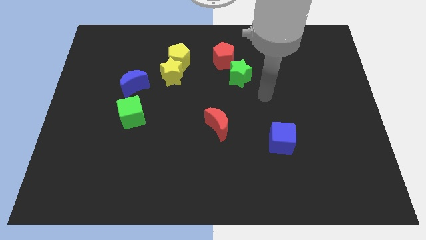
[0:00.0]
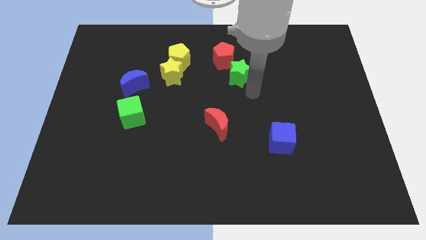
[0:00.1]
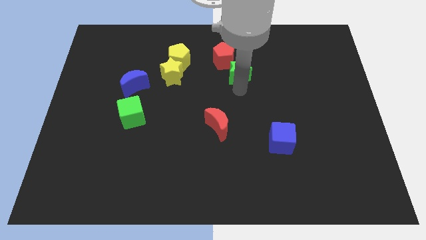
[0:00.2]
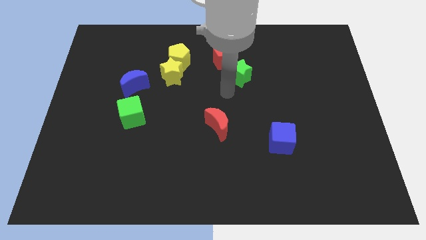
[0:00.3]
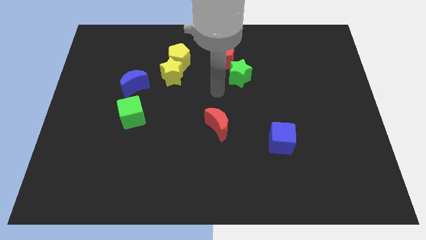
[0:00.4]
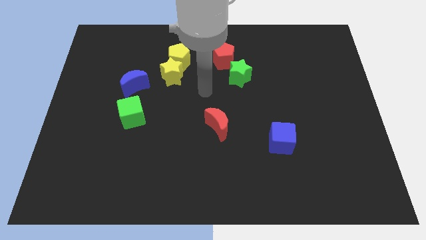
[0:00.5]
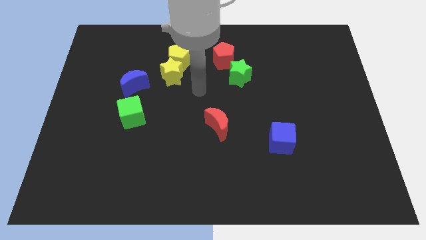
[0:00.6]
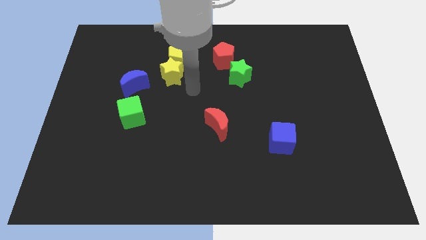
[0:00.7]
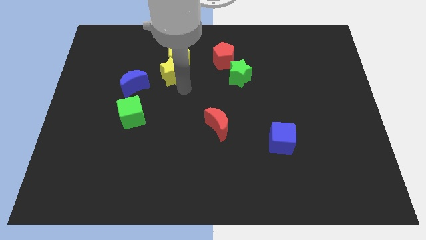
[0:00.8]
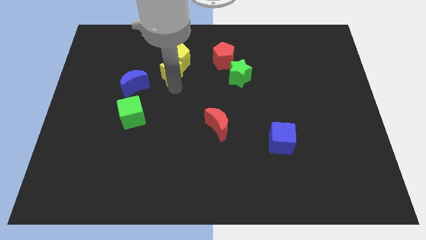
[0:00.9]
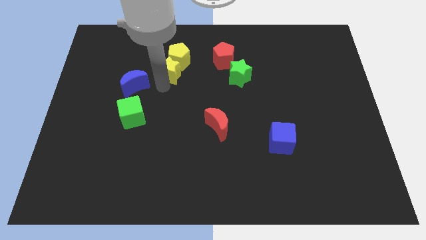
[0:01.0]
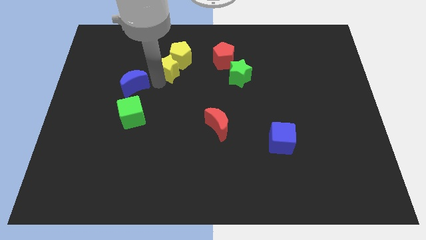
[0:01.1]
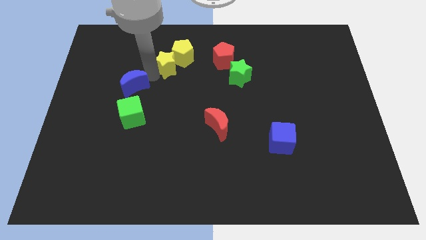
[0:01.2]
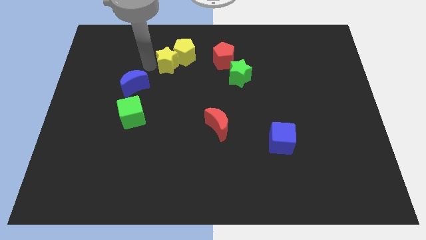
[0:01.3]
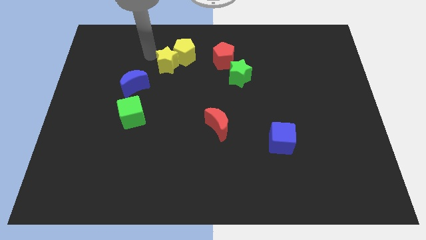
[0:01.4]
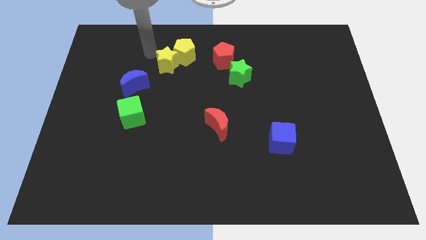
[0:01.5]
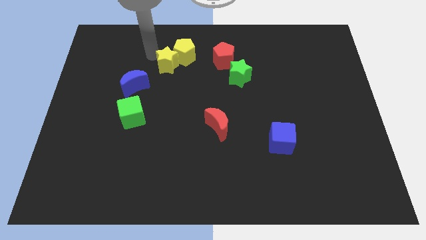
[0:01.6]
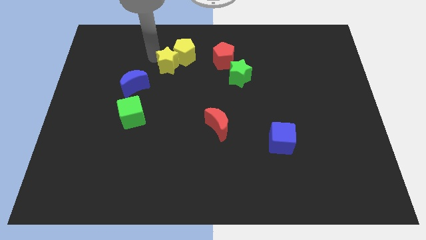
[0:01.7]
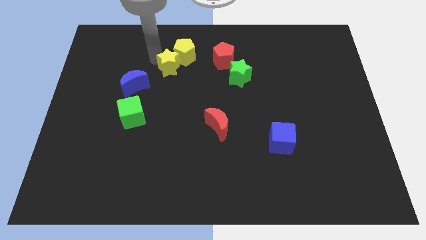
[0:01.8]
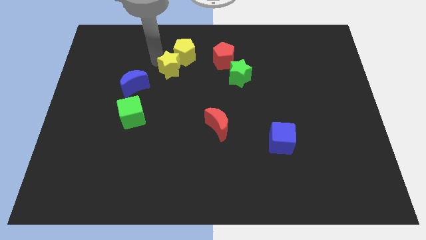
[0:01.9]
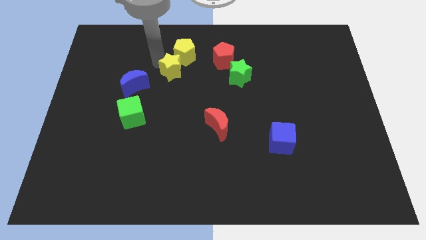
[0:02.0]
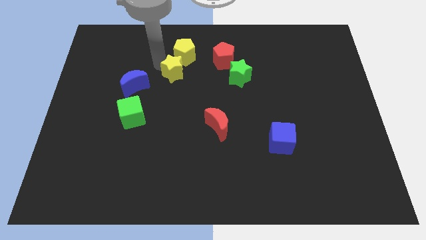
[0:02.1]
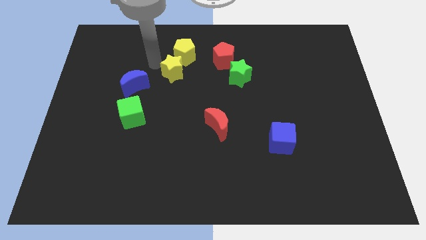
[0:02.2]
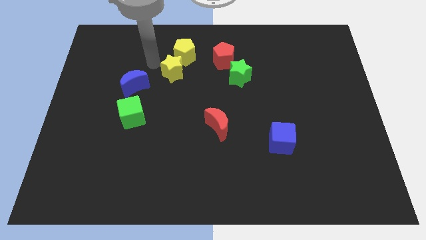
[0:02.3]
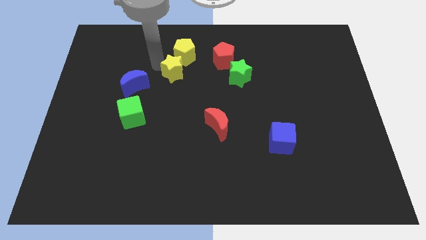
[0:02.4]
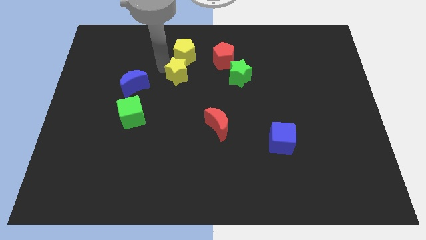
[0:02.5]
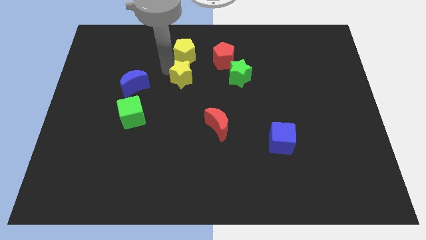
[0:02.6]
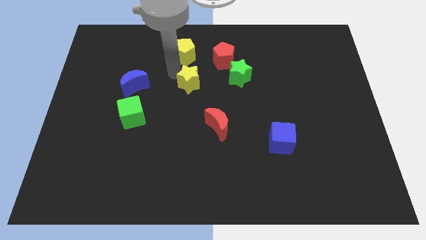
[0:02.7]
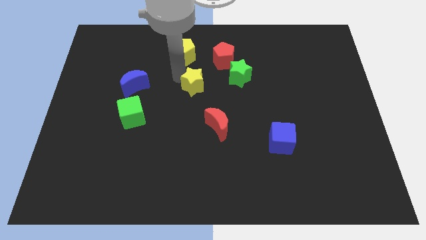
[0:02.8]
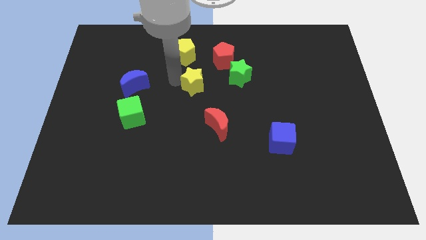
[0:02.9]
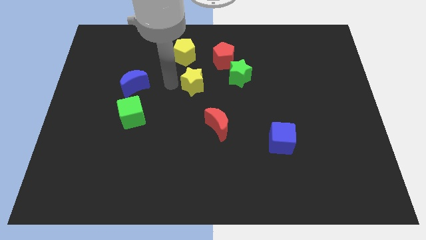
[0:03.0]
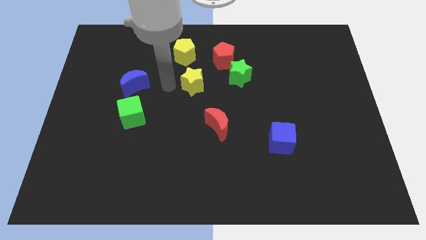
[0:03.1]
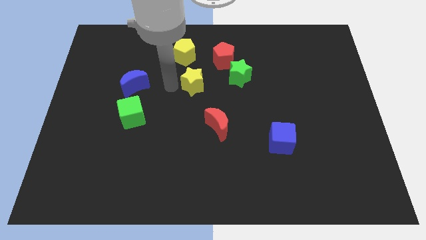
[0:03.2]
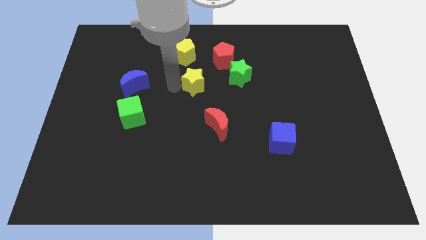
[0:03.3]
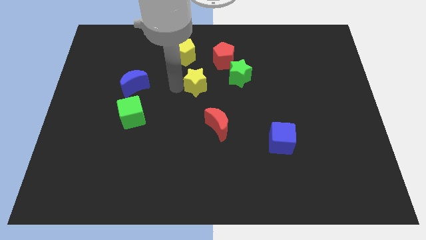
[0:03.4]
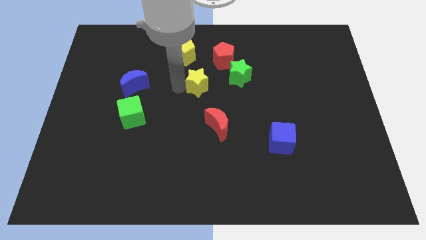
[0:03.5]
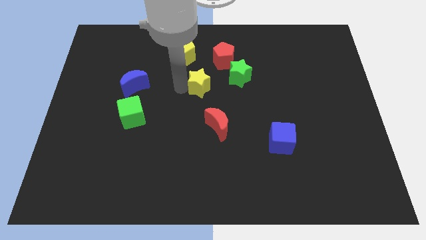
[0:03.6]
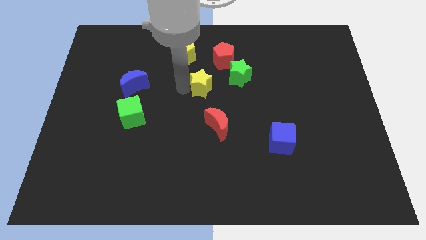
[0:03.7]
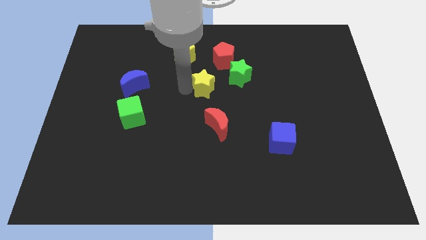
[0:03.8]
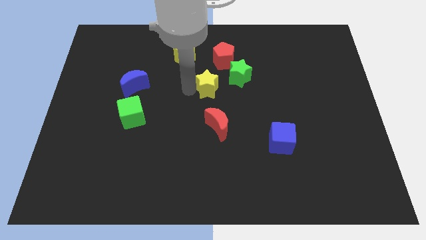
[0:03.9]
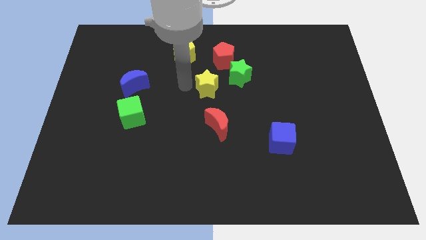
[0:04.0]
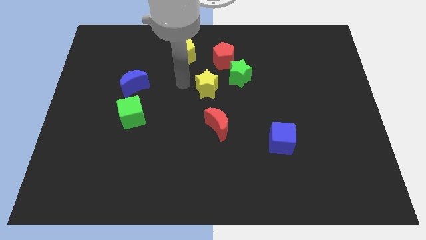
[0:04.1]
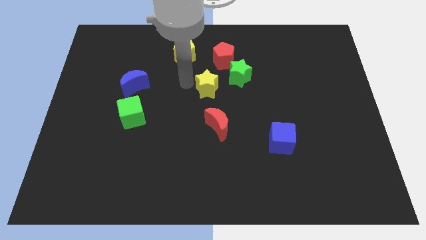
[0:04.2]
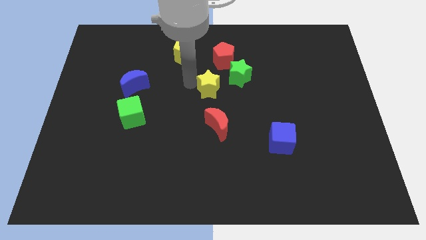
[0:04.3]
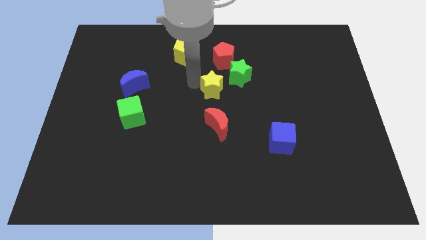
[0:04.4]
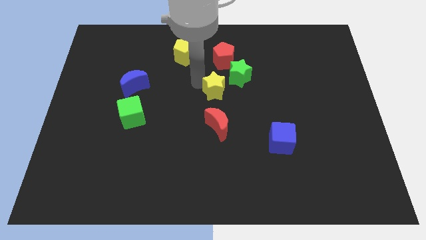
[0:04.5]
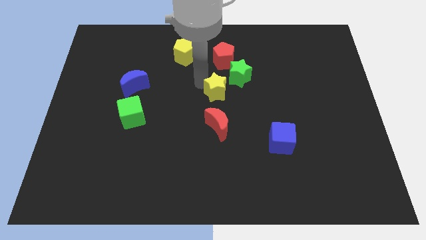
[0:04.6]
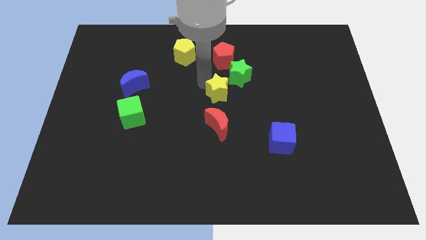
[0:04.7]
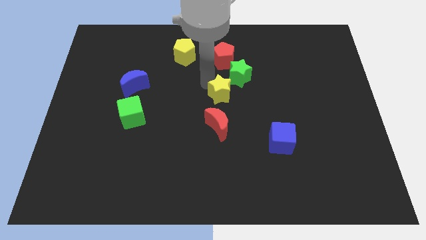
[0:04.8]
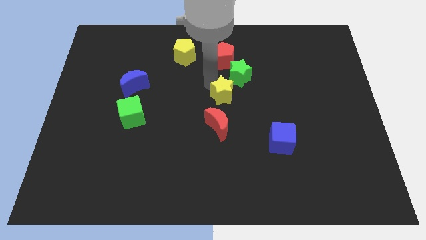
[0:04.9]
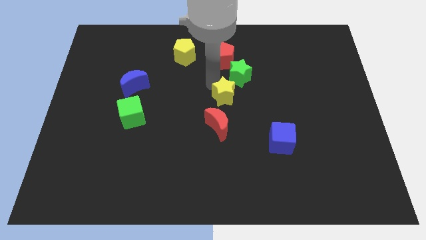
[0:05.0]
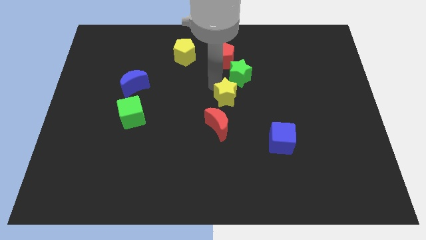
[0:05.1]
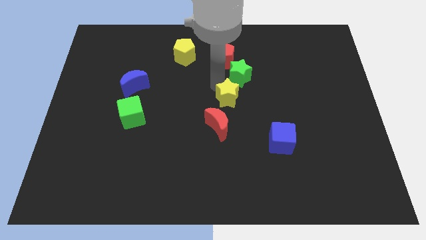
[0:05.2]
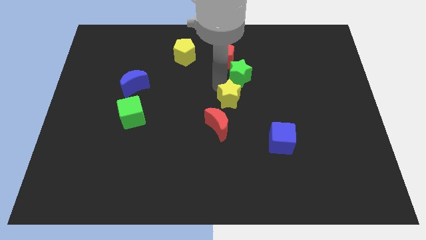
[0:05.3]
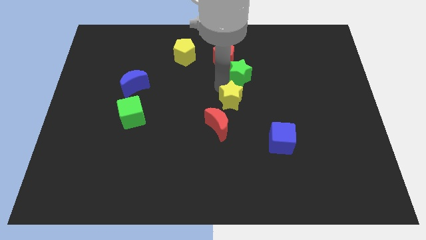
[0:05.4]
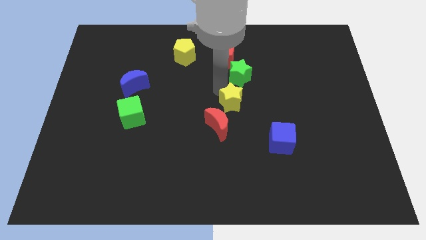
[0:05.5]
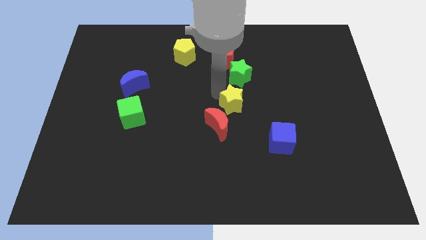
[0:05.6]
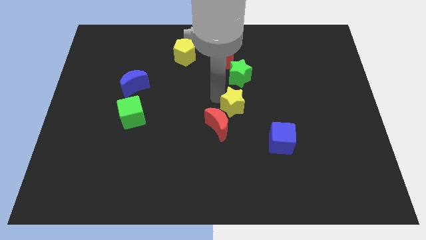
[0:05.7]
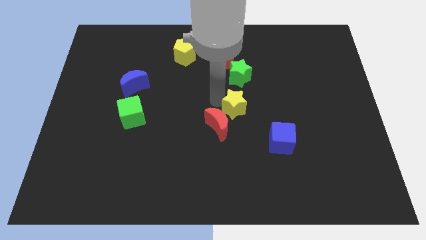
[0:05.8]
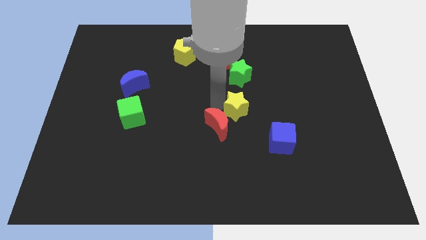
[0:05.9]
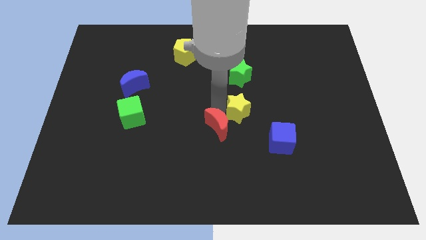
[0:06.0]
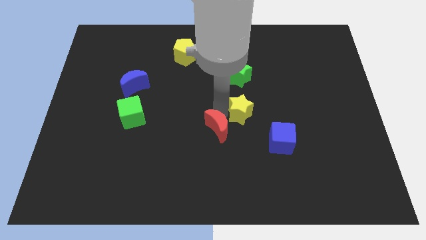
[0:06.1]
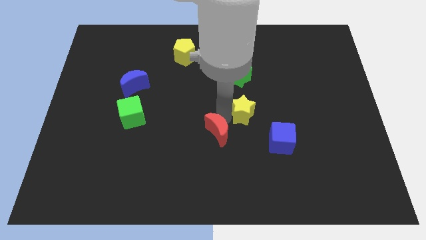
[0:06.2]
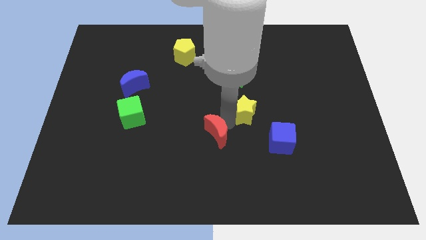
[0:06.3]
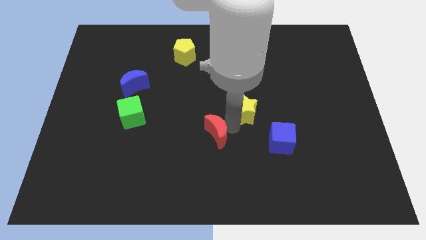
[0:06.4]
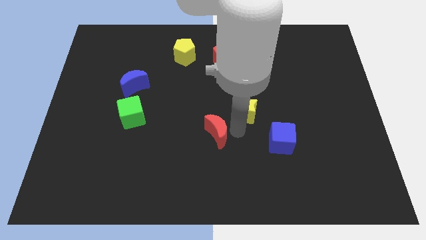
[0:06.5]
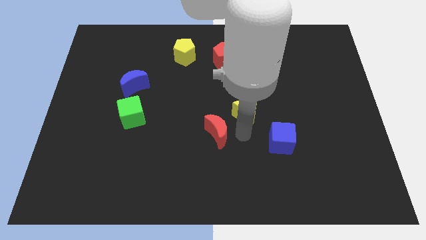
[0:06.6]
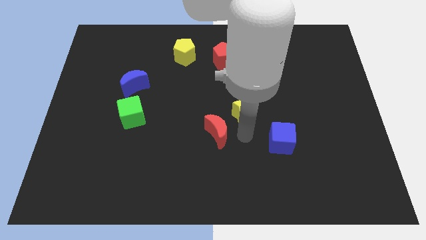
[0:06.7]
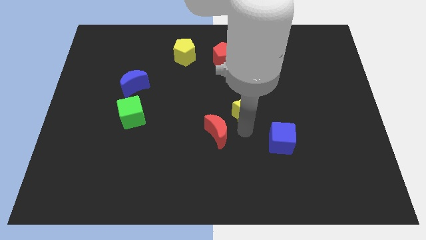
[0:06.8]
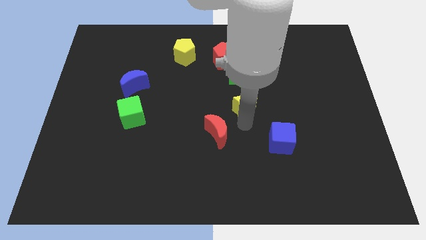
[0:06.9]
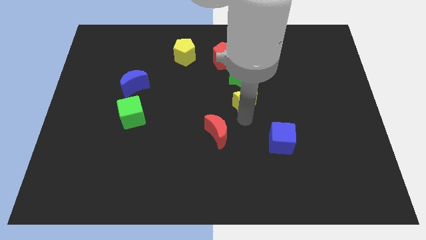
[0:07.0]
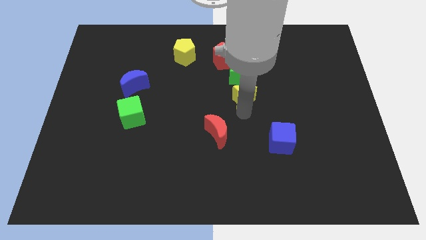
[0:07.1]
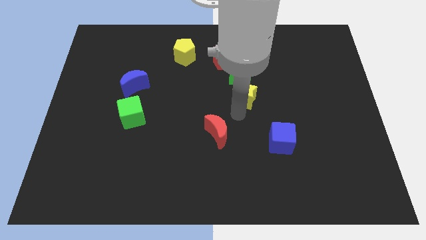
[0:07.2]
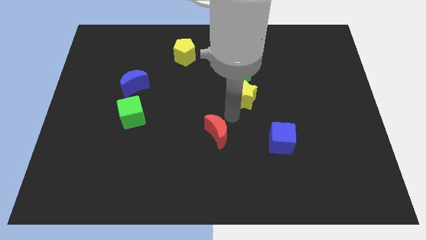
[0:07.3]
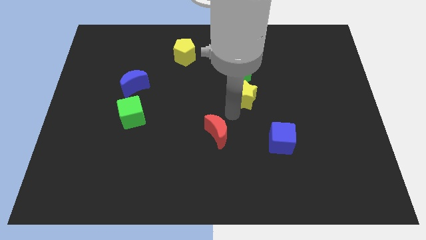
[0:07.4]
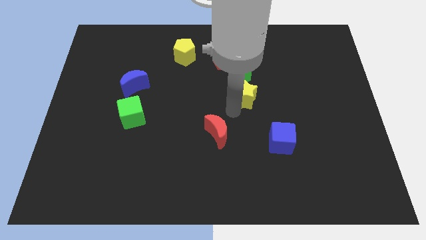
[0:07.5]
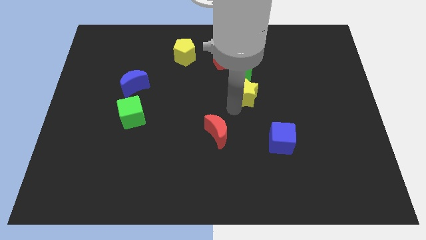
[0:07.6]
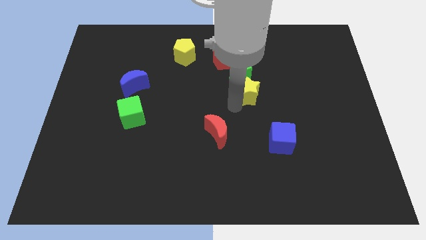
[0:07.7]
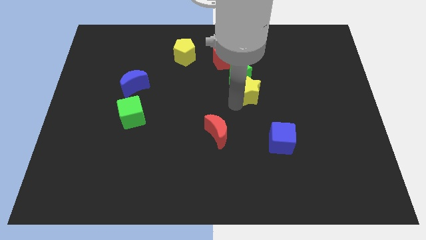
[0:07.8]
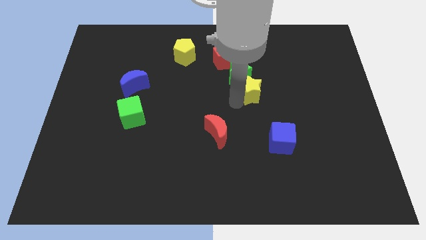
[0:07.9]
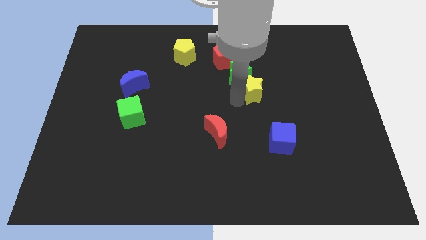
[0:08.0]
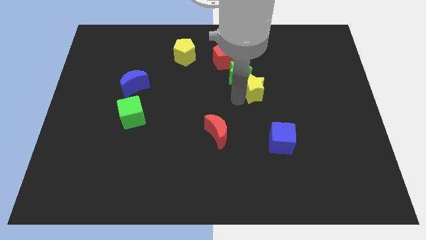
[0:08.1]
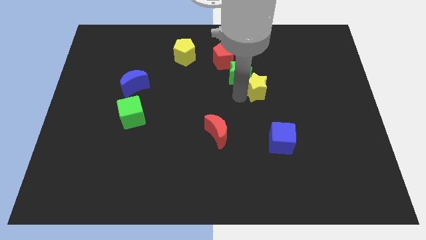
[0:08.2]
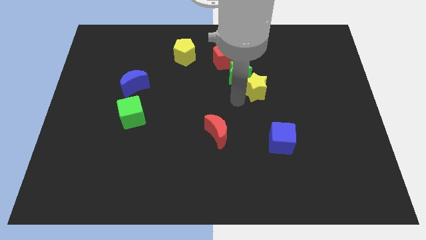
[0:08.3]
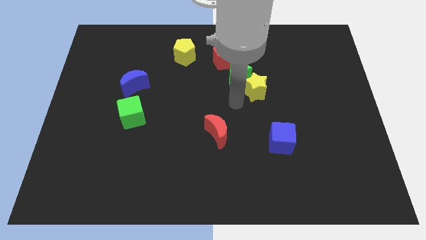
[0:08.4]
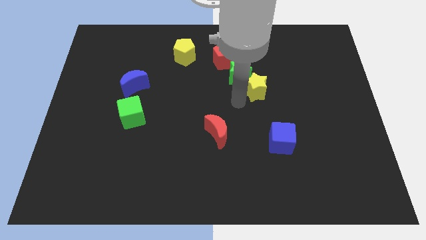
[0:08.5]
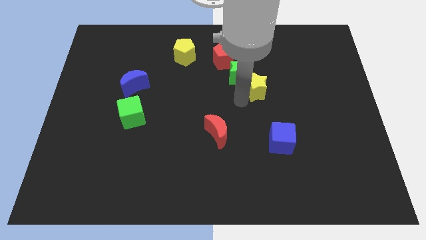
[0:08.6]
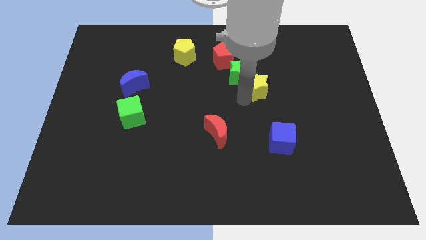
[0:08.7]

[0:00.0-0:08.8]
move the yellow star to the right
